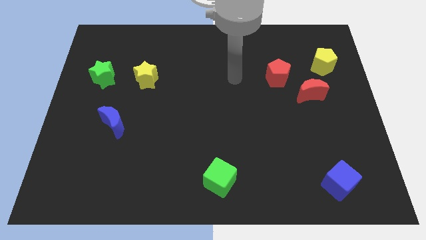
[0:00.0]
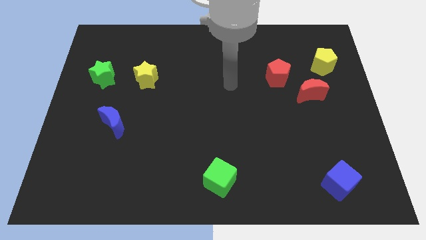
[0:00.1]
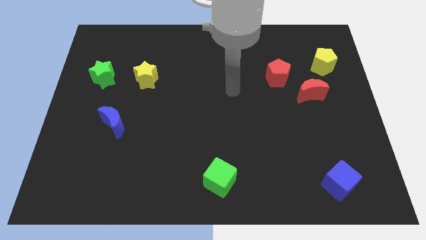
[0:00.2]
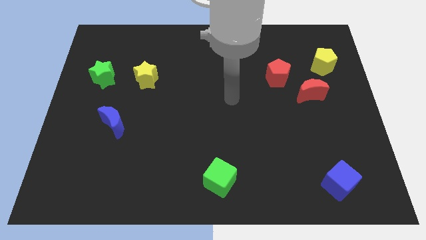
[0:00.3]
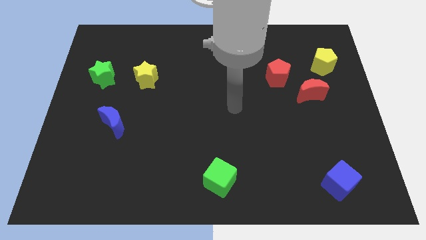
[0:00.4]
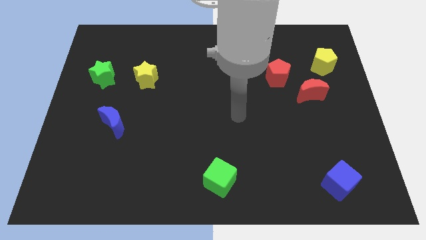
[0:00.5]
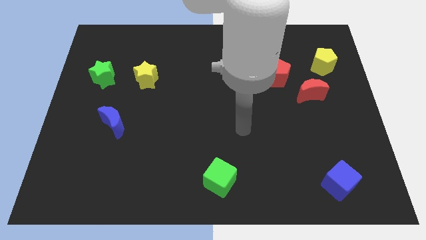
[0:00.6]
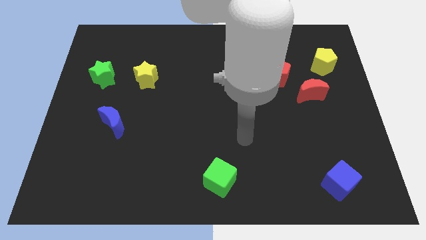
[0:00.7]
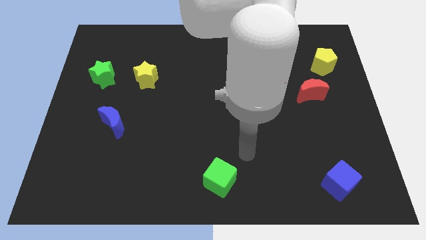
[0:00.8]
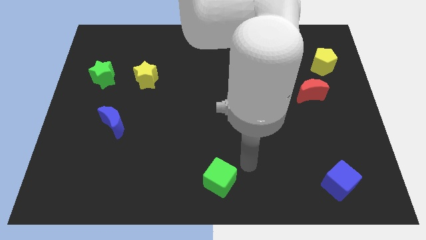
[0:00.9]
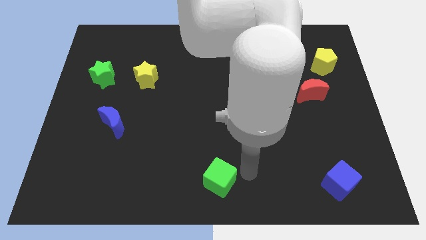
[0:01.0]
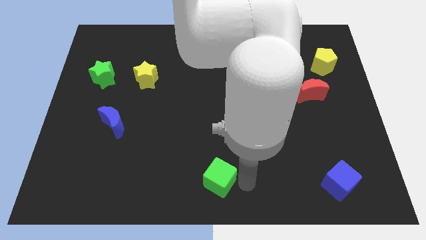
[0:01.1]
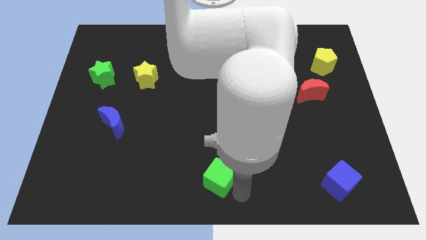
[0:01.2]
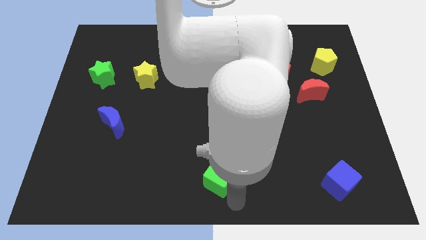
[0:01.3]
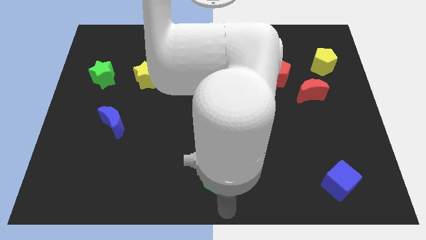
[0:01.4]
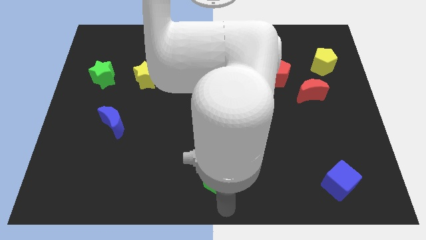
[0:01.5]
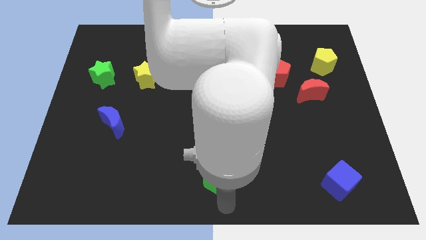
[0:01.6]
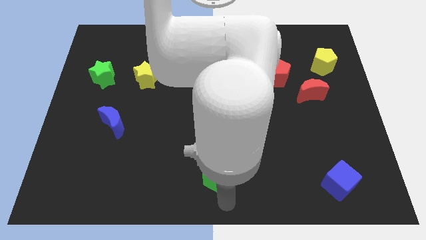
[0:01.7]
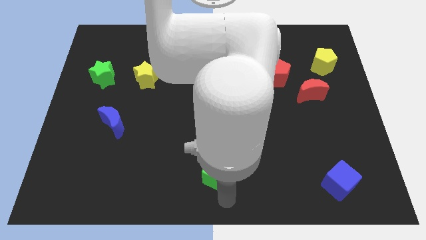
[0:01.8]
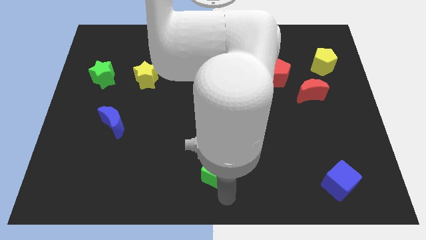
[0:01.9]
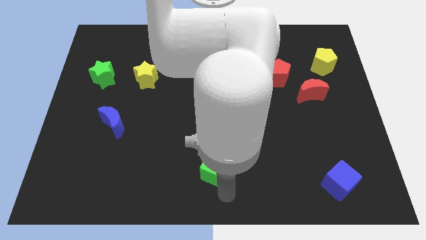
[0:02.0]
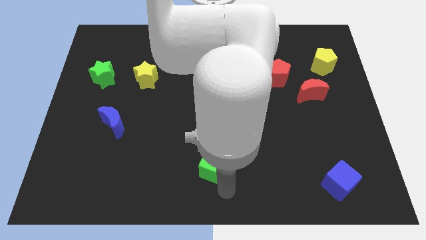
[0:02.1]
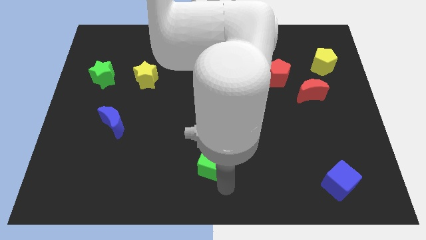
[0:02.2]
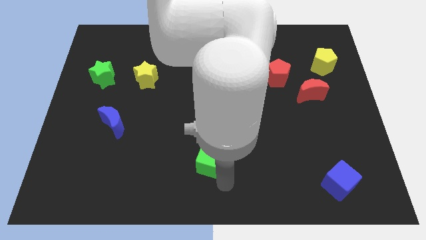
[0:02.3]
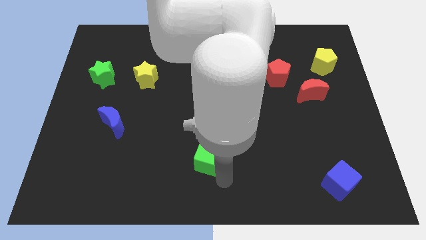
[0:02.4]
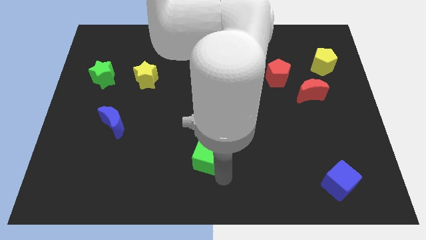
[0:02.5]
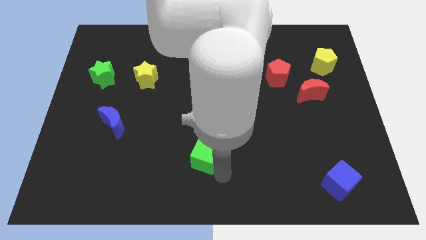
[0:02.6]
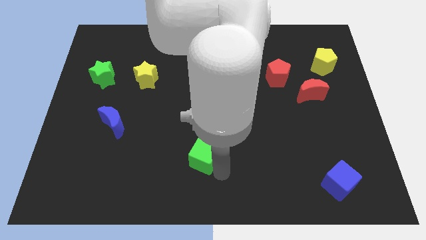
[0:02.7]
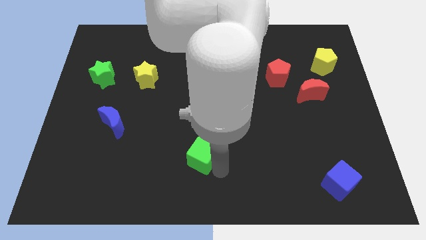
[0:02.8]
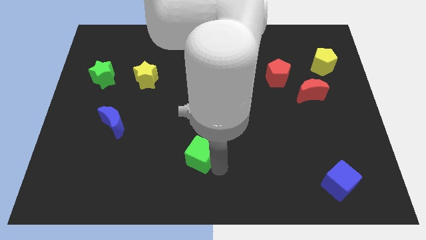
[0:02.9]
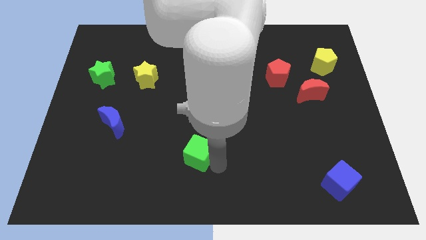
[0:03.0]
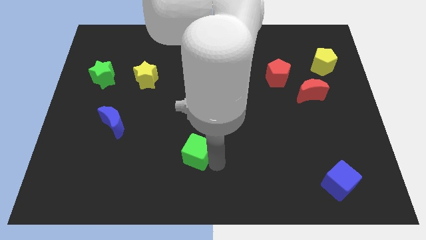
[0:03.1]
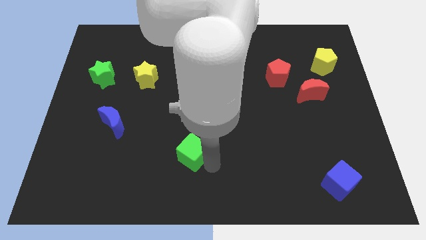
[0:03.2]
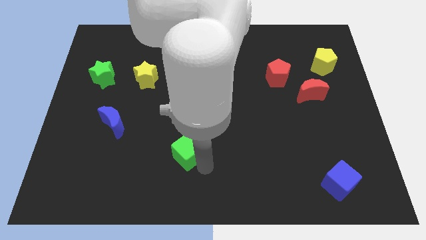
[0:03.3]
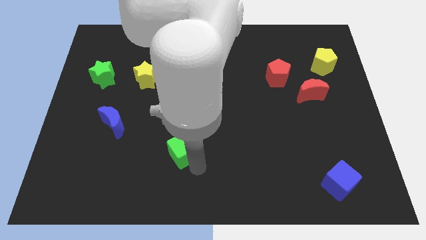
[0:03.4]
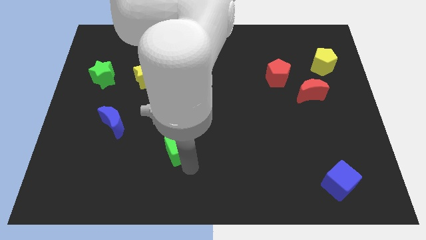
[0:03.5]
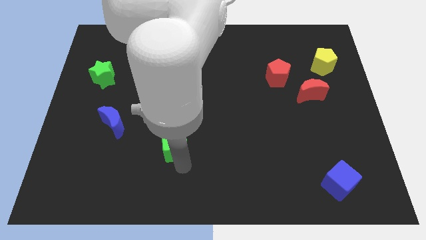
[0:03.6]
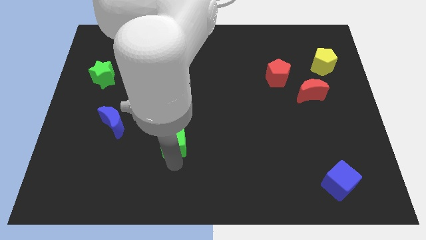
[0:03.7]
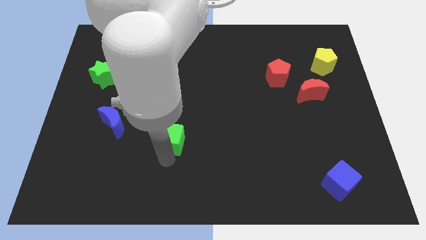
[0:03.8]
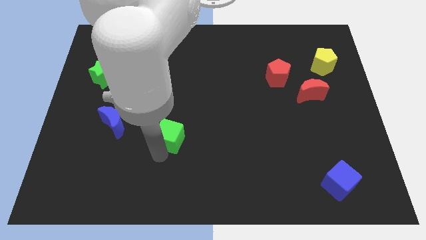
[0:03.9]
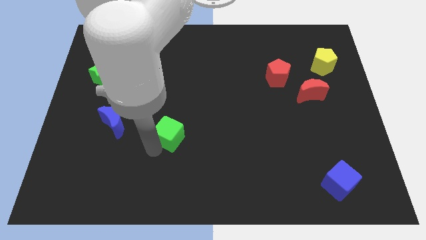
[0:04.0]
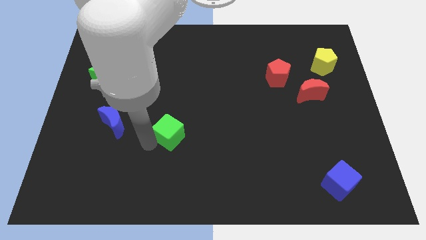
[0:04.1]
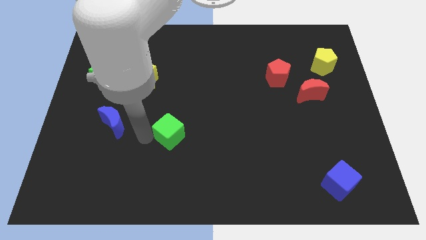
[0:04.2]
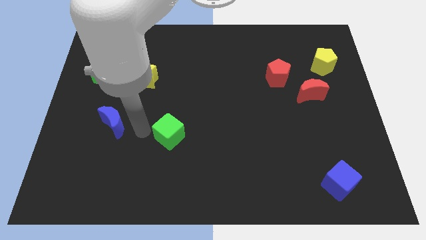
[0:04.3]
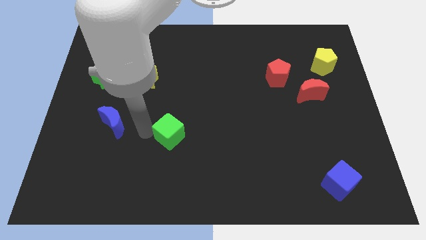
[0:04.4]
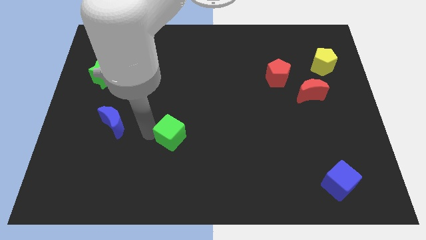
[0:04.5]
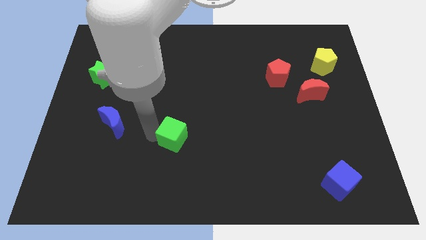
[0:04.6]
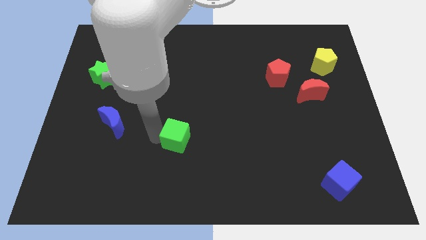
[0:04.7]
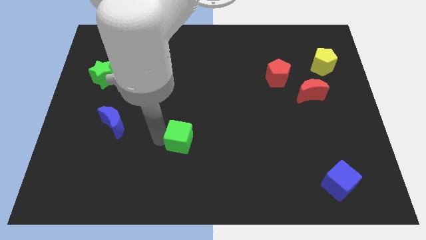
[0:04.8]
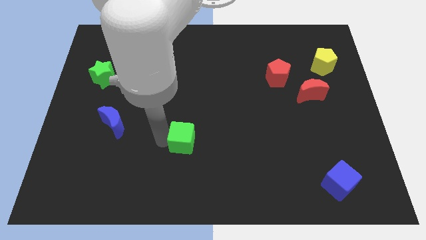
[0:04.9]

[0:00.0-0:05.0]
slide the green cube somewhat up

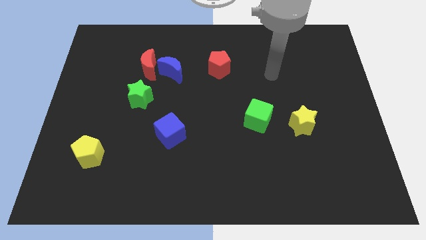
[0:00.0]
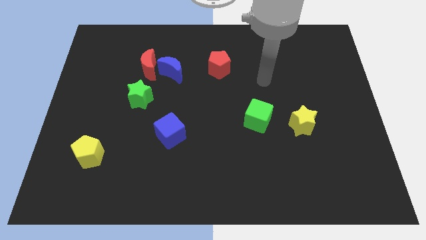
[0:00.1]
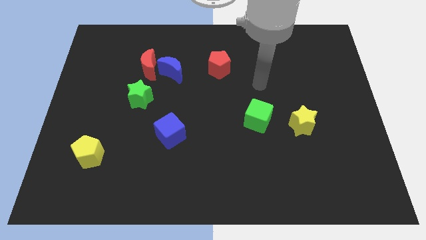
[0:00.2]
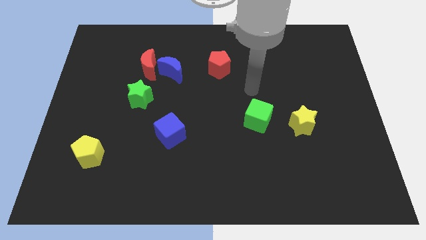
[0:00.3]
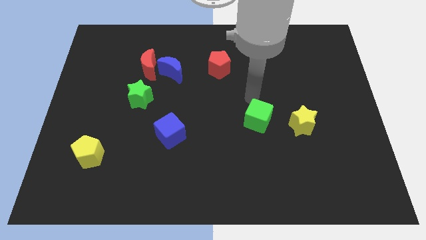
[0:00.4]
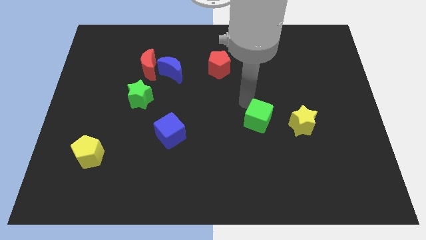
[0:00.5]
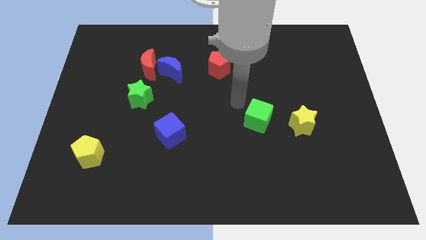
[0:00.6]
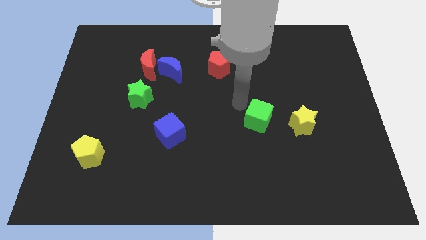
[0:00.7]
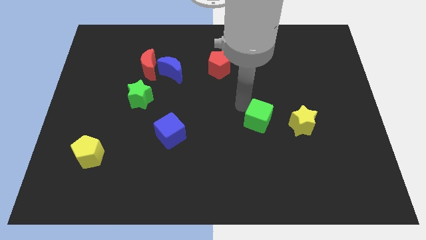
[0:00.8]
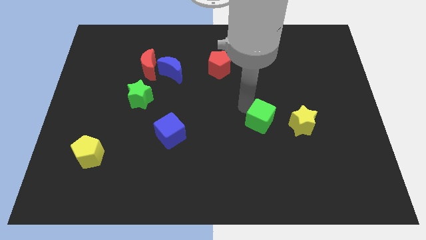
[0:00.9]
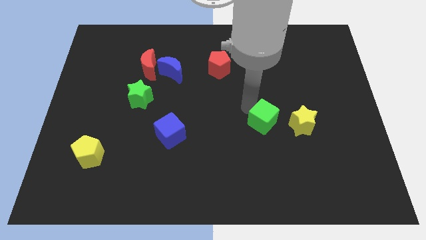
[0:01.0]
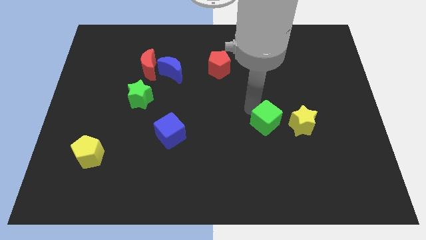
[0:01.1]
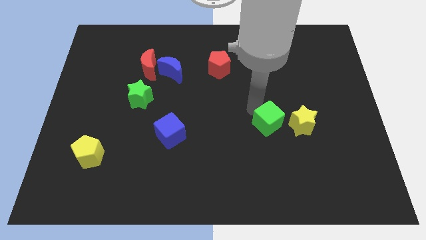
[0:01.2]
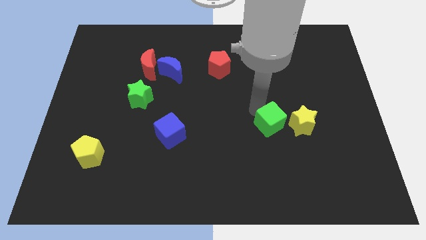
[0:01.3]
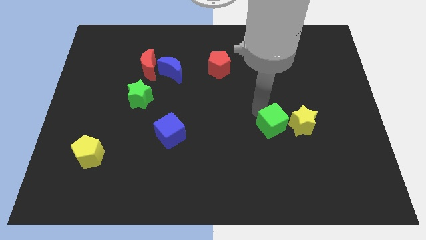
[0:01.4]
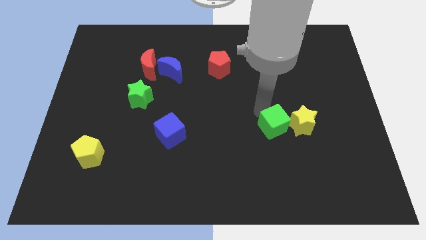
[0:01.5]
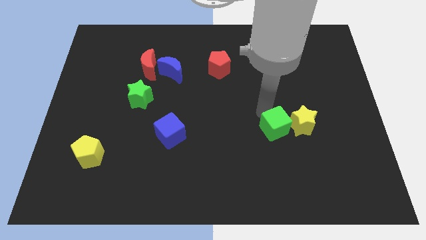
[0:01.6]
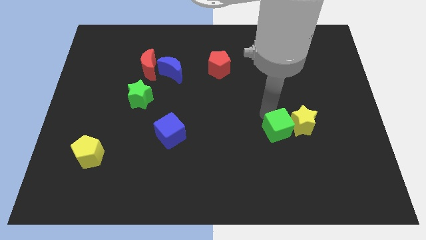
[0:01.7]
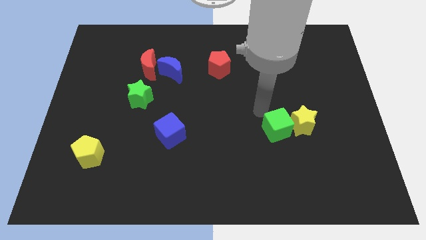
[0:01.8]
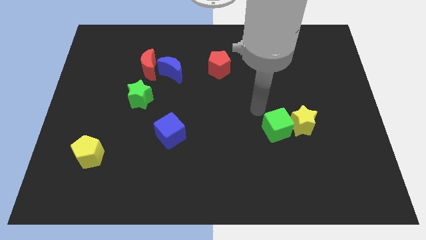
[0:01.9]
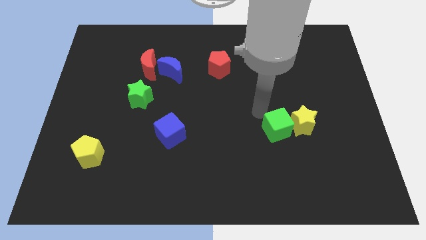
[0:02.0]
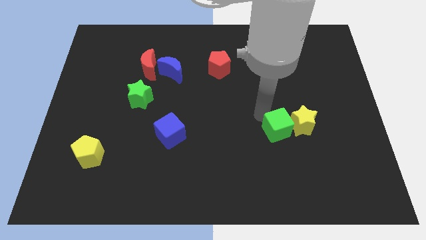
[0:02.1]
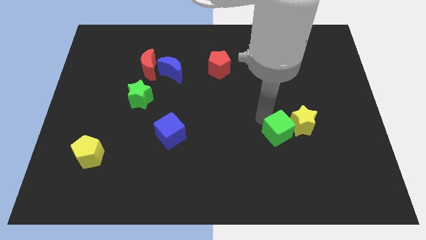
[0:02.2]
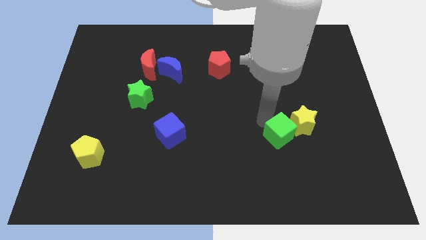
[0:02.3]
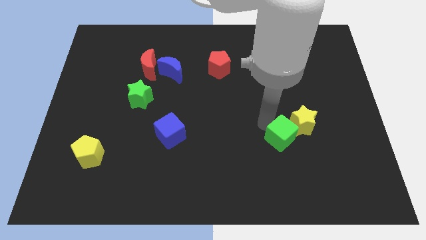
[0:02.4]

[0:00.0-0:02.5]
move the green cube a little downwards and then right

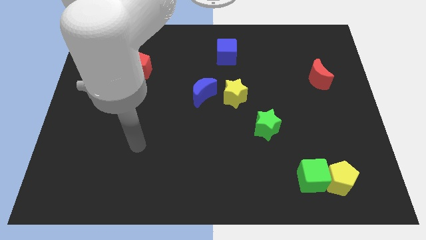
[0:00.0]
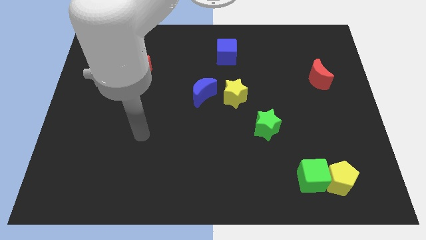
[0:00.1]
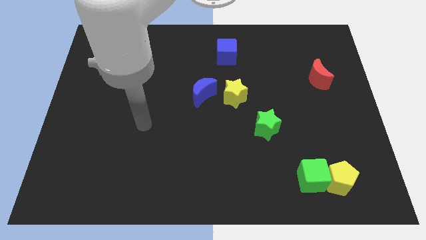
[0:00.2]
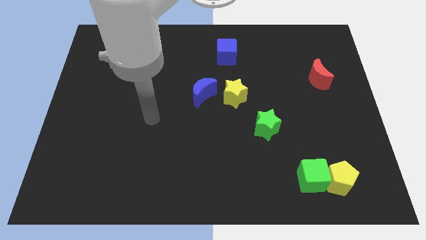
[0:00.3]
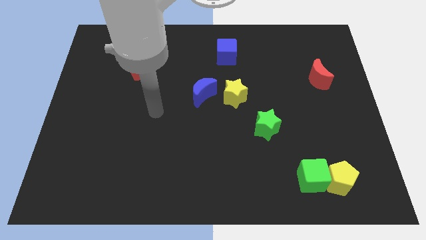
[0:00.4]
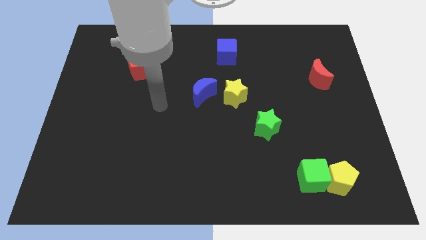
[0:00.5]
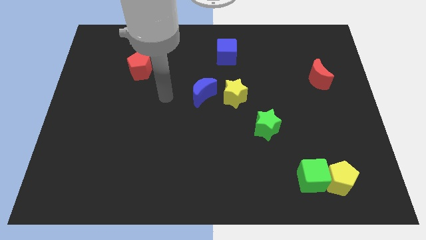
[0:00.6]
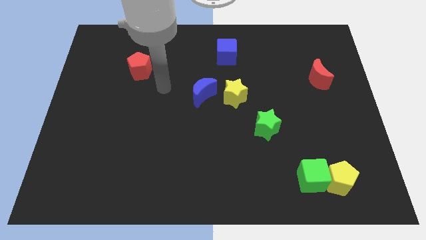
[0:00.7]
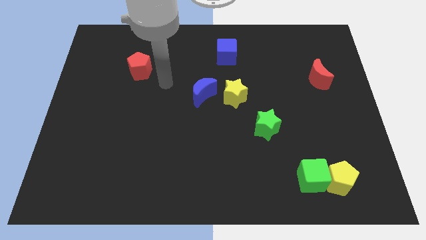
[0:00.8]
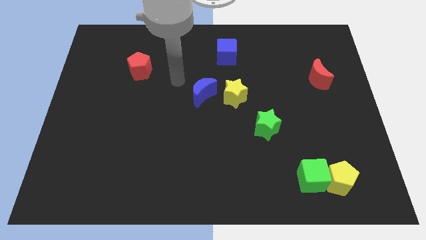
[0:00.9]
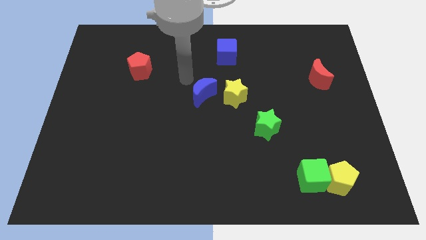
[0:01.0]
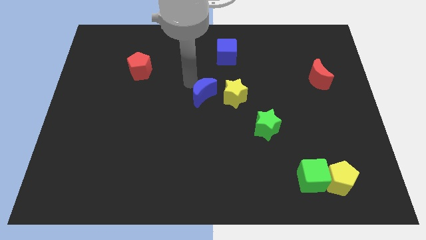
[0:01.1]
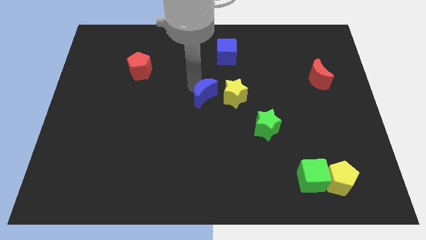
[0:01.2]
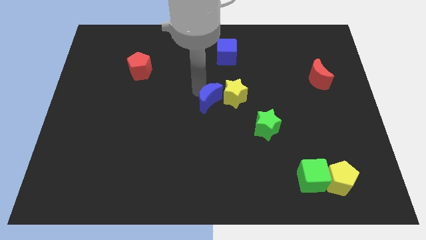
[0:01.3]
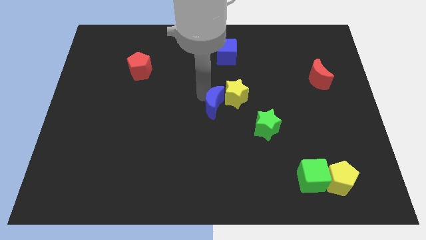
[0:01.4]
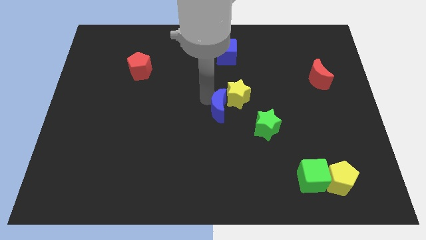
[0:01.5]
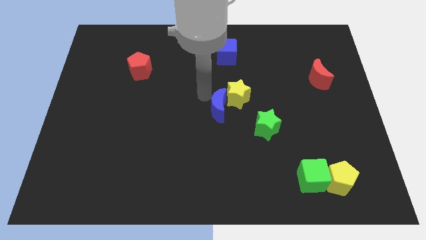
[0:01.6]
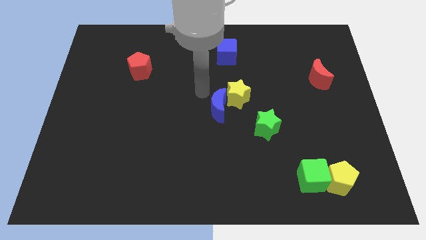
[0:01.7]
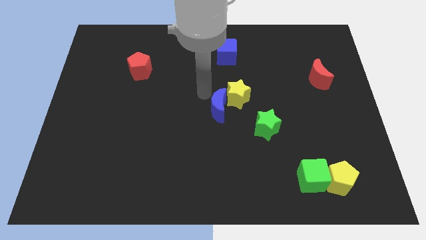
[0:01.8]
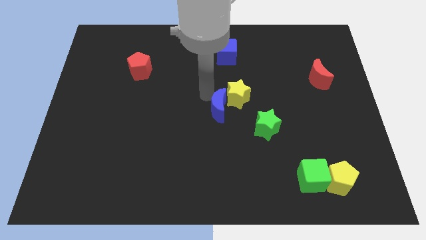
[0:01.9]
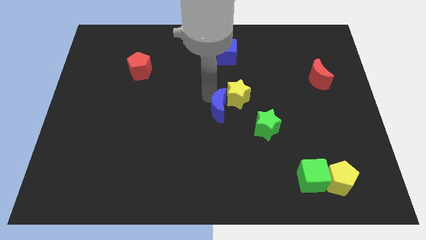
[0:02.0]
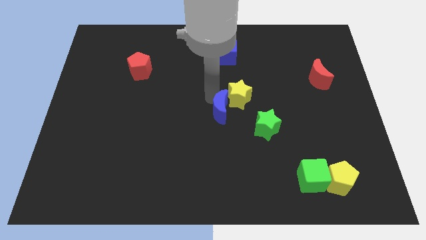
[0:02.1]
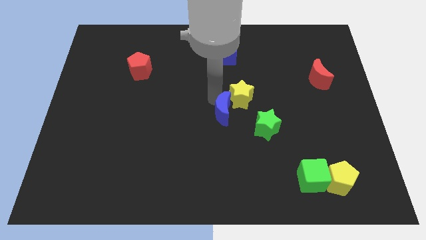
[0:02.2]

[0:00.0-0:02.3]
slightly push the blue moon downwards and to the right
